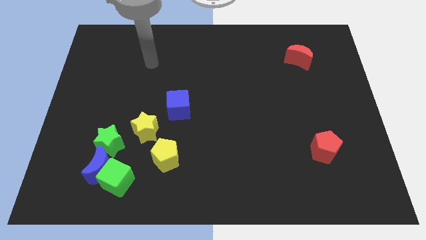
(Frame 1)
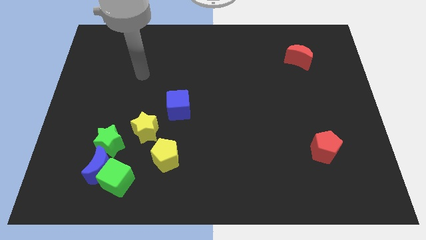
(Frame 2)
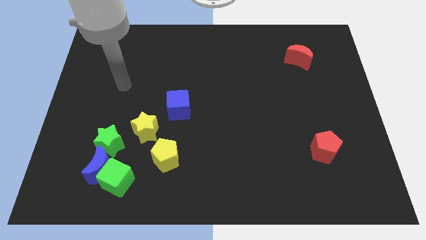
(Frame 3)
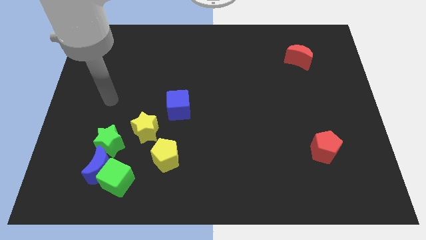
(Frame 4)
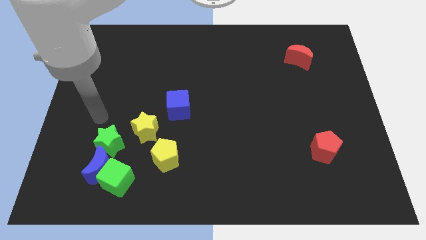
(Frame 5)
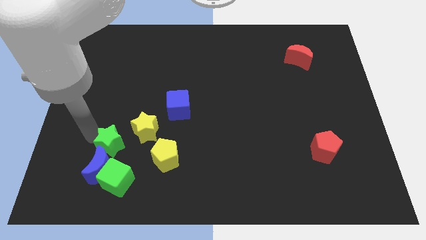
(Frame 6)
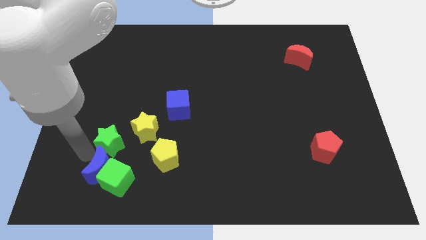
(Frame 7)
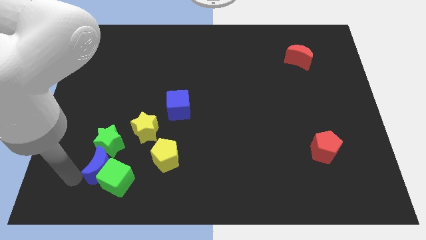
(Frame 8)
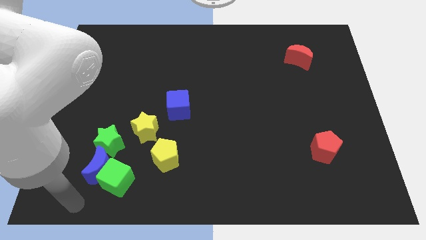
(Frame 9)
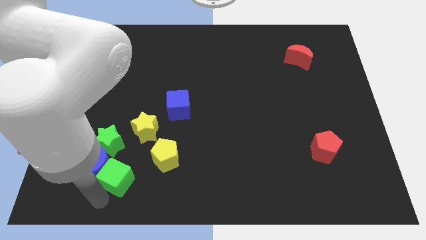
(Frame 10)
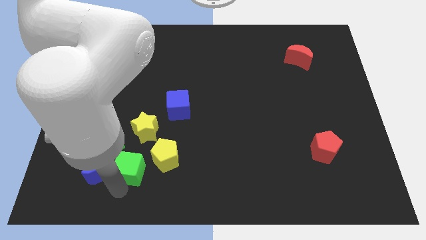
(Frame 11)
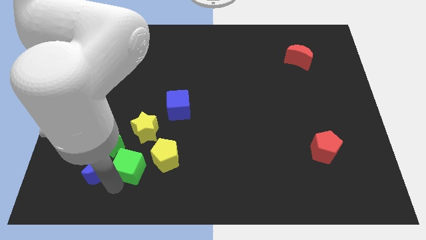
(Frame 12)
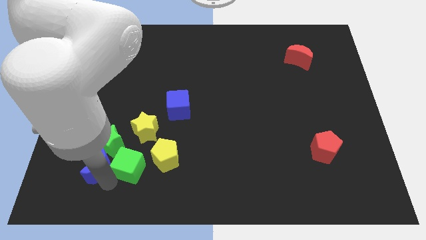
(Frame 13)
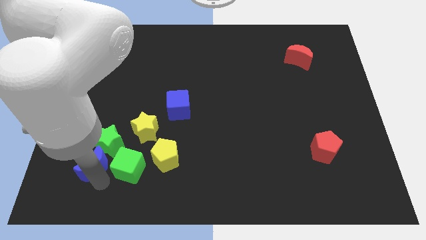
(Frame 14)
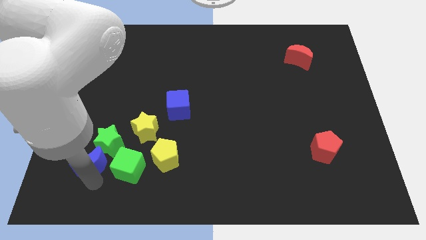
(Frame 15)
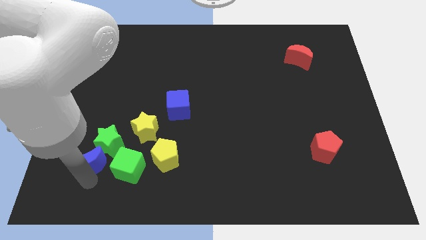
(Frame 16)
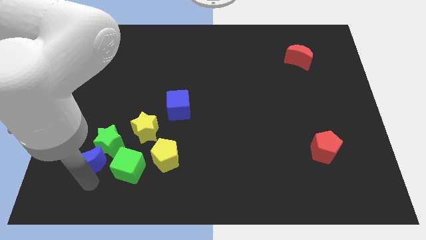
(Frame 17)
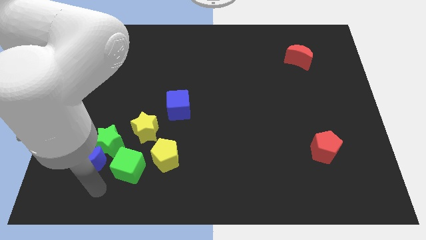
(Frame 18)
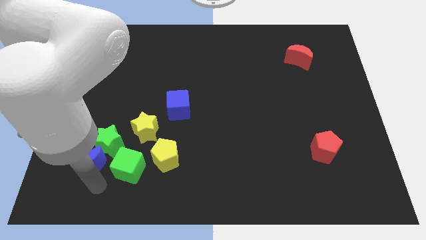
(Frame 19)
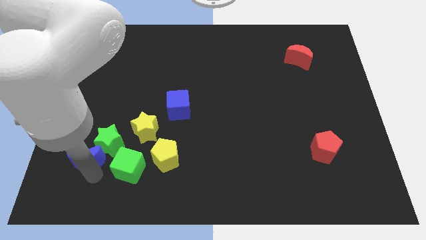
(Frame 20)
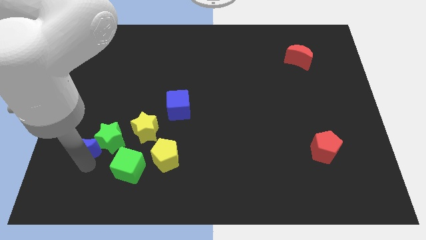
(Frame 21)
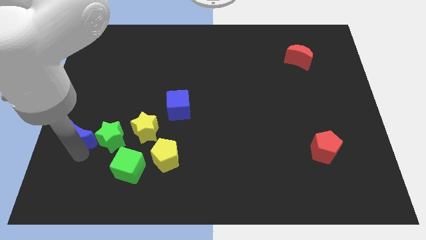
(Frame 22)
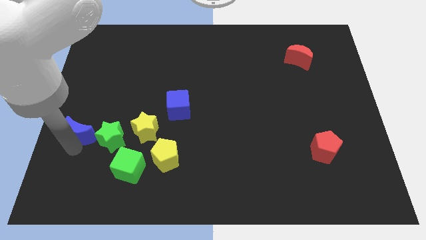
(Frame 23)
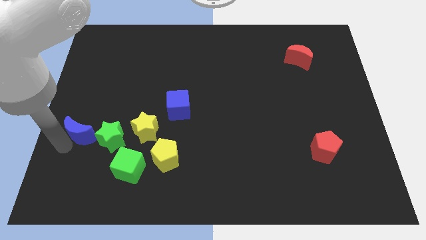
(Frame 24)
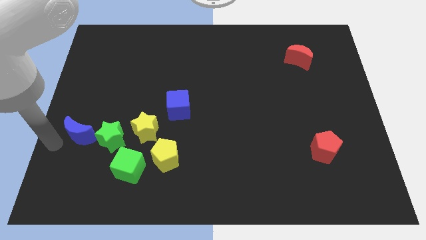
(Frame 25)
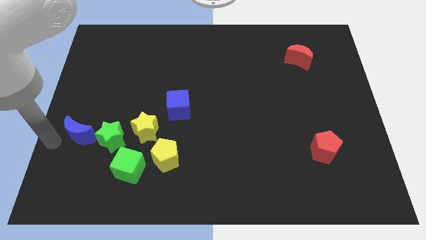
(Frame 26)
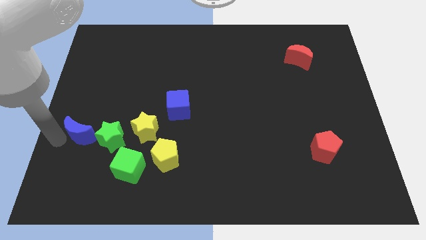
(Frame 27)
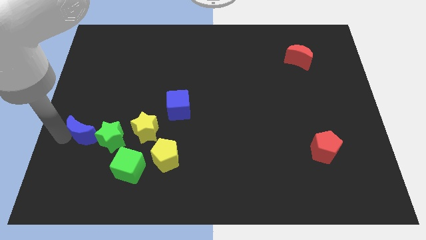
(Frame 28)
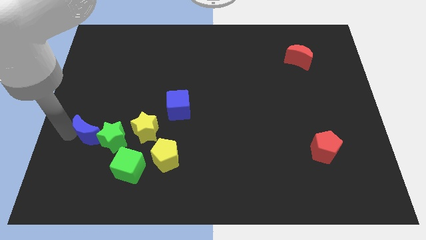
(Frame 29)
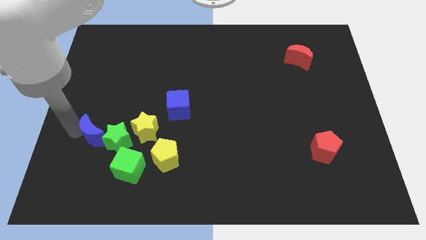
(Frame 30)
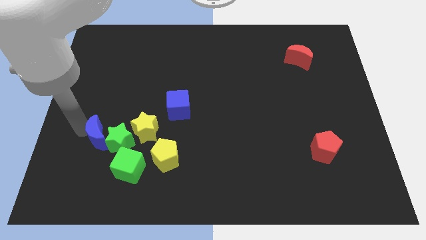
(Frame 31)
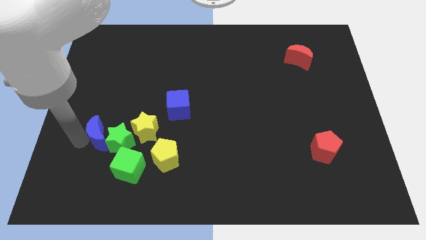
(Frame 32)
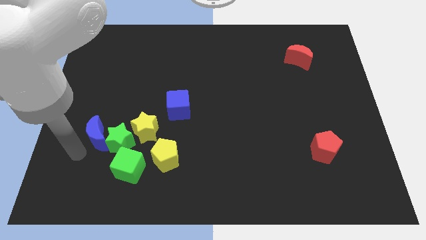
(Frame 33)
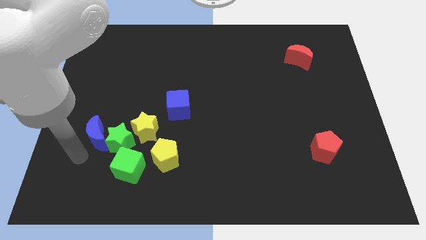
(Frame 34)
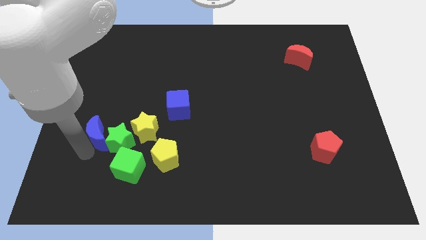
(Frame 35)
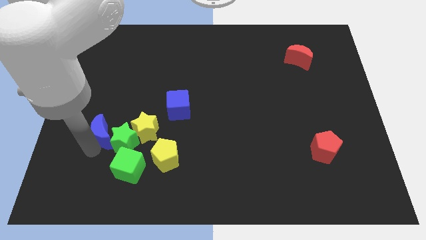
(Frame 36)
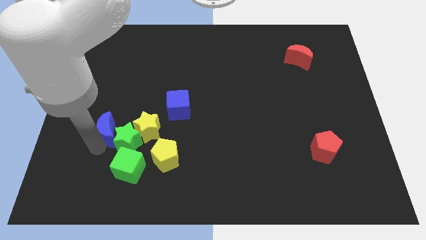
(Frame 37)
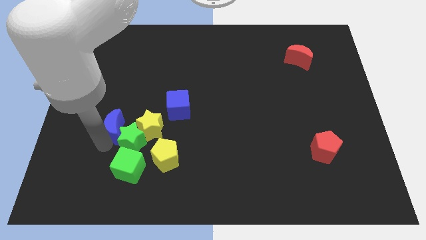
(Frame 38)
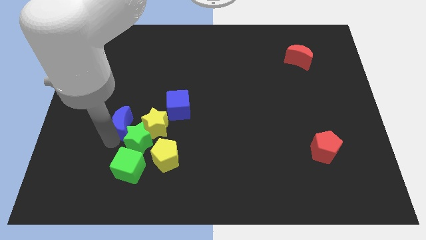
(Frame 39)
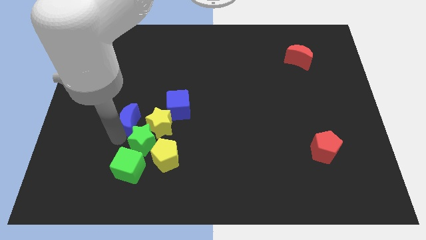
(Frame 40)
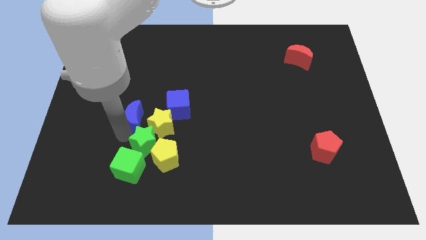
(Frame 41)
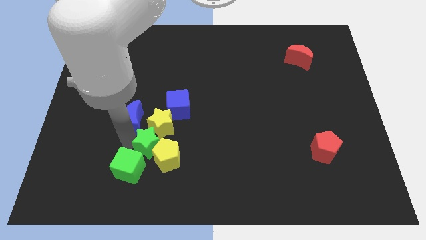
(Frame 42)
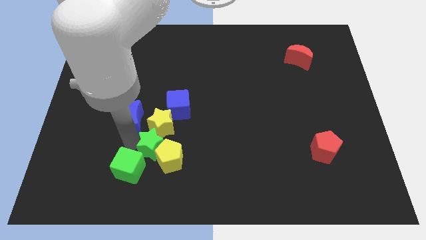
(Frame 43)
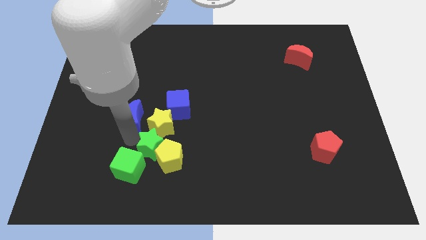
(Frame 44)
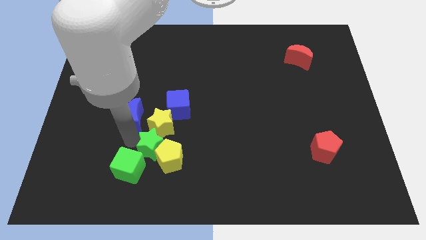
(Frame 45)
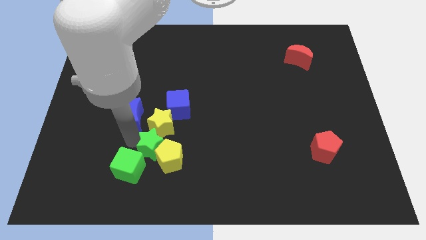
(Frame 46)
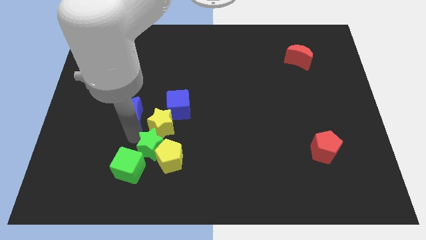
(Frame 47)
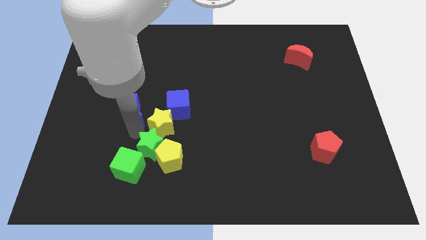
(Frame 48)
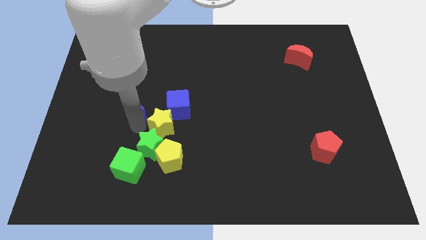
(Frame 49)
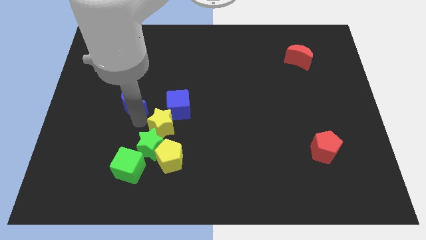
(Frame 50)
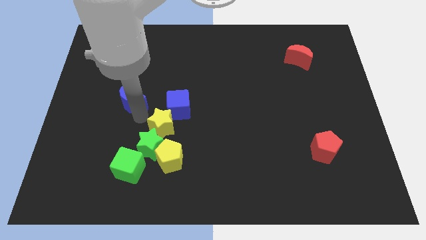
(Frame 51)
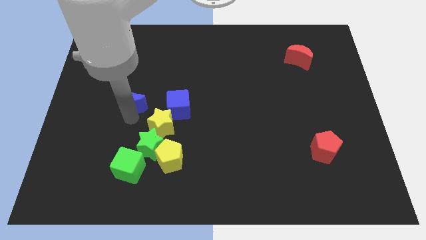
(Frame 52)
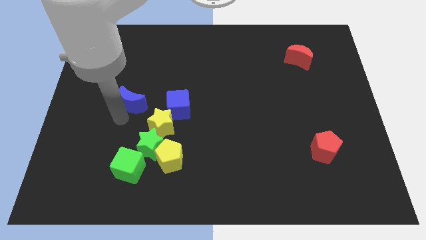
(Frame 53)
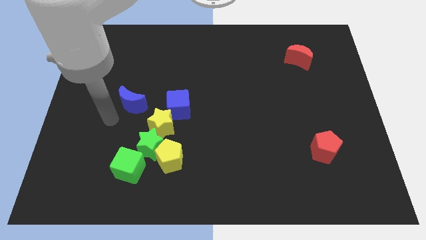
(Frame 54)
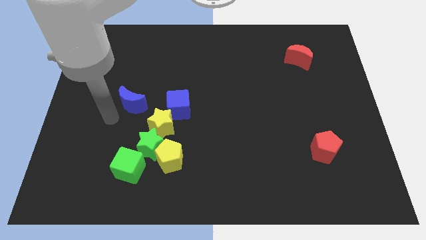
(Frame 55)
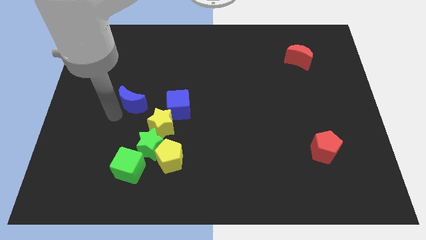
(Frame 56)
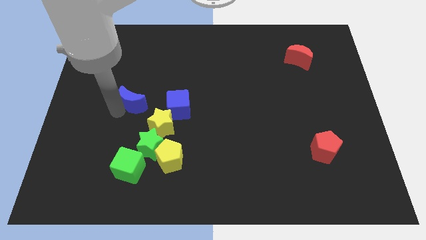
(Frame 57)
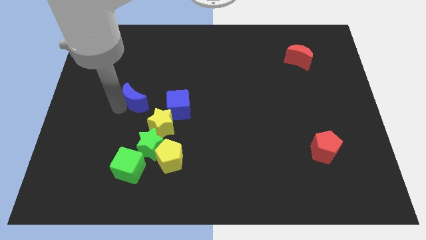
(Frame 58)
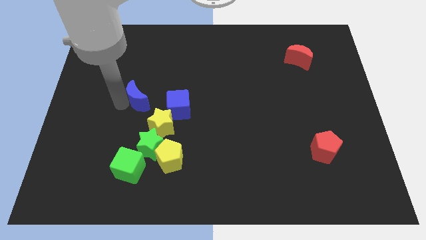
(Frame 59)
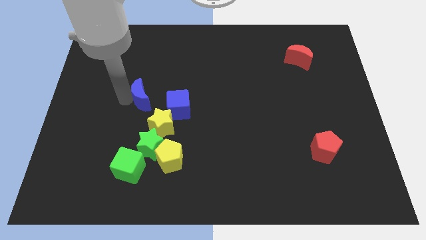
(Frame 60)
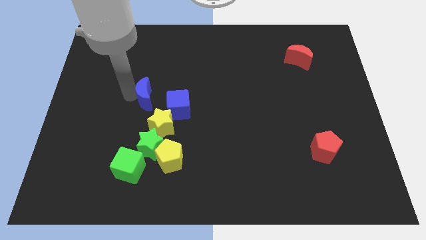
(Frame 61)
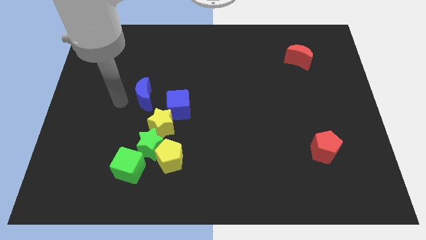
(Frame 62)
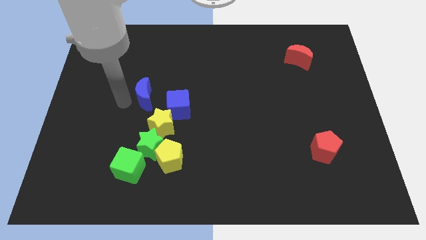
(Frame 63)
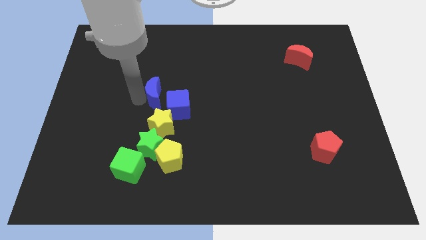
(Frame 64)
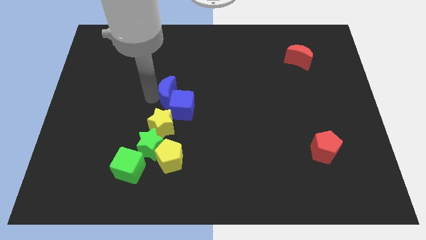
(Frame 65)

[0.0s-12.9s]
put the blue moon to the center of the board

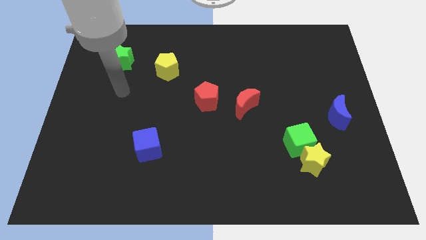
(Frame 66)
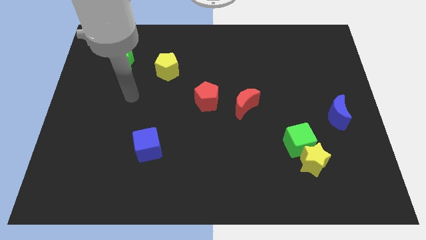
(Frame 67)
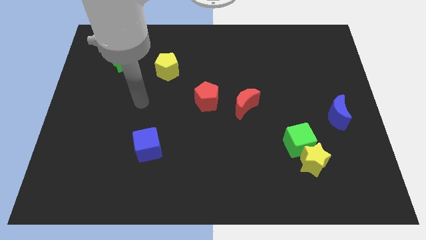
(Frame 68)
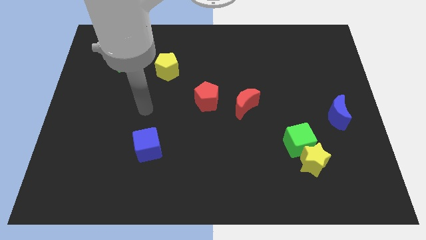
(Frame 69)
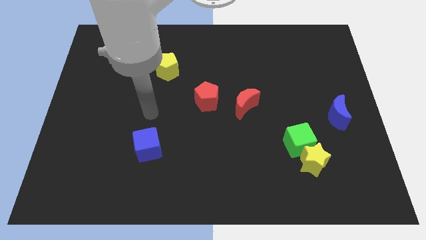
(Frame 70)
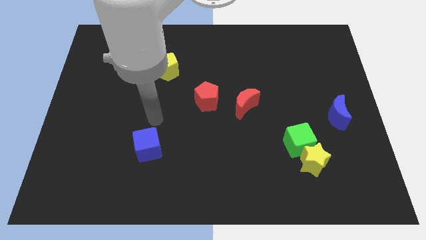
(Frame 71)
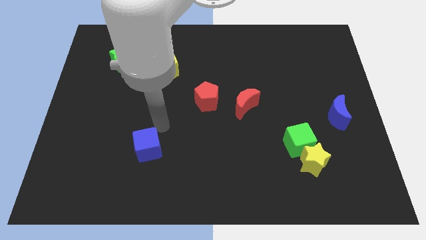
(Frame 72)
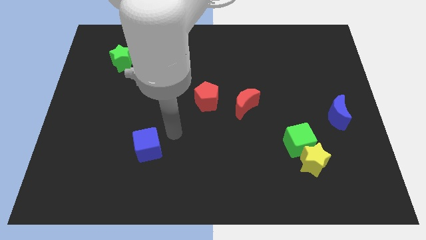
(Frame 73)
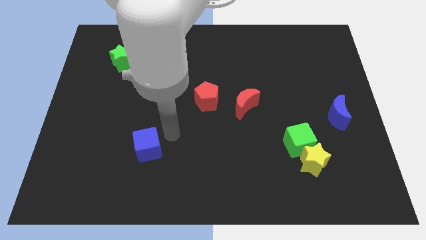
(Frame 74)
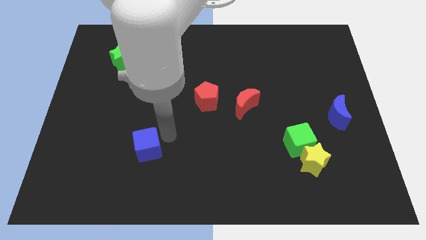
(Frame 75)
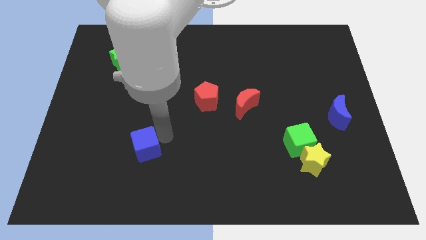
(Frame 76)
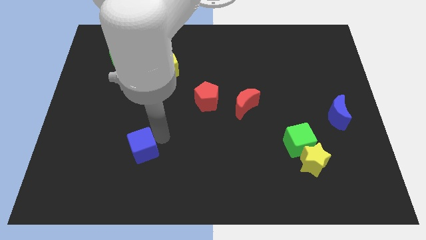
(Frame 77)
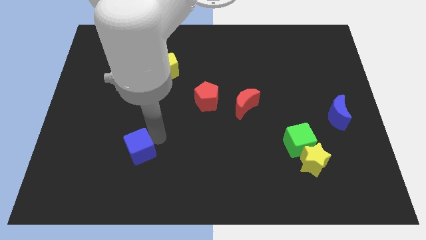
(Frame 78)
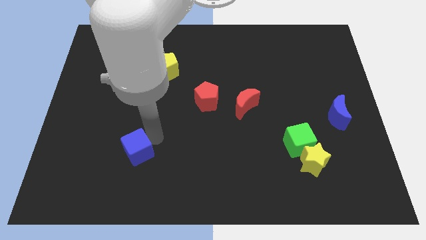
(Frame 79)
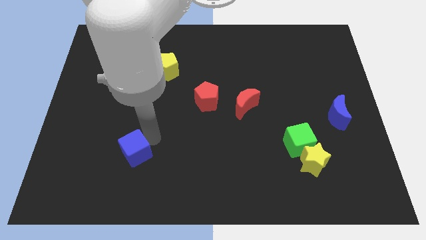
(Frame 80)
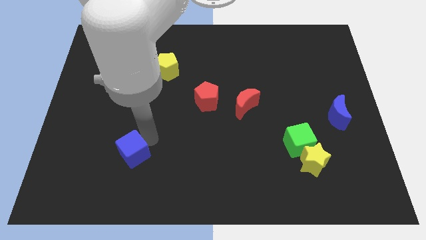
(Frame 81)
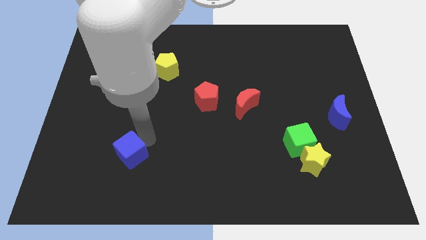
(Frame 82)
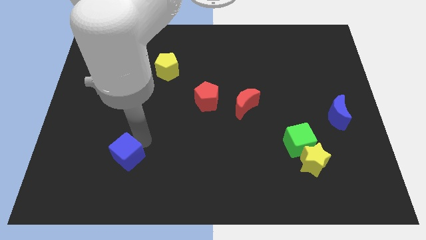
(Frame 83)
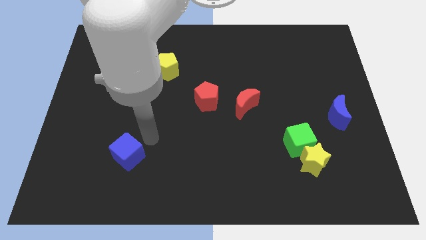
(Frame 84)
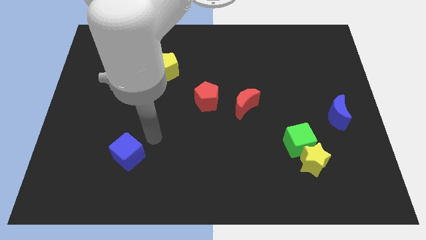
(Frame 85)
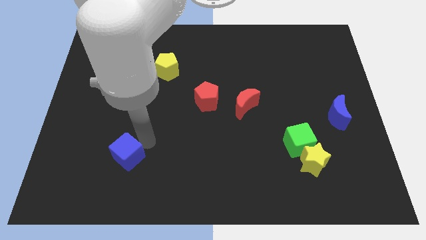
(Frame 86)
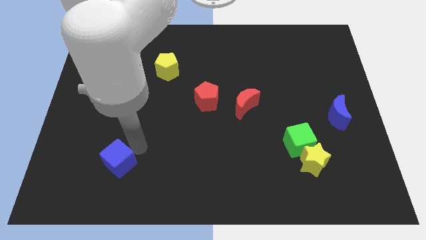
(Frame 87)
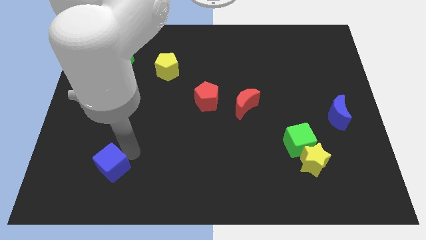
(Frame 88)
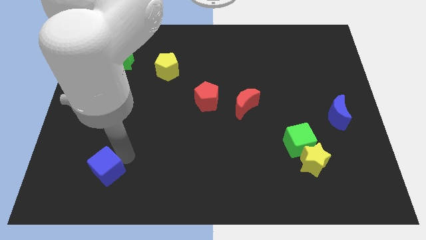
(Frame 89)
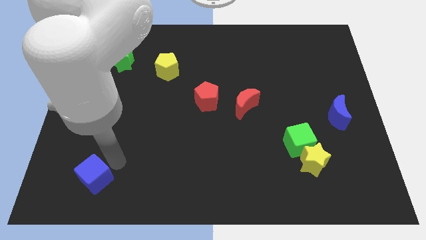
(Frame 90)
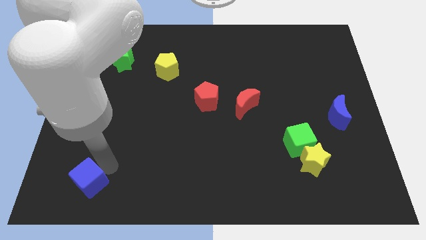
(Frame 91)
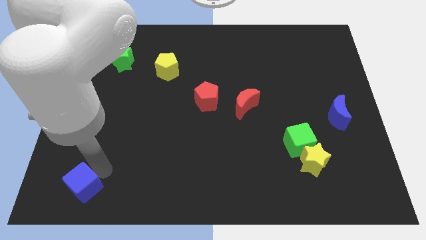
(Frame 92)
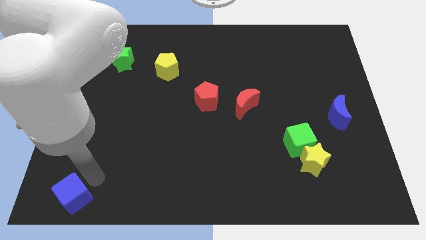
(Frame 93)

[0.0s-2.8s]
slide the blue cube to the bottom left of the board
